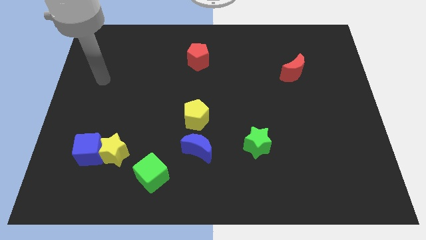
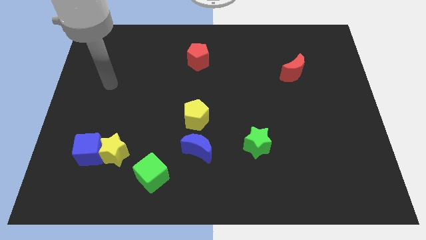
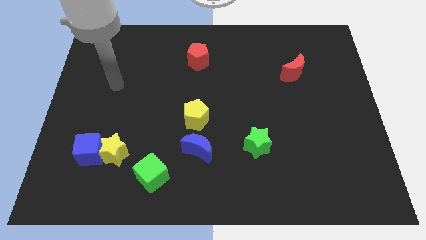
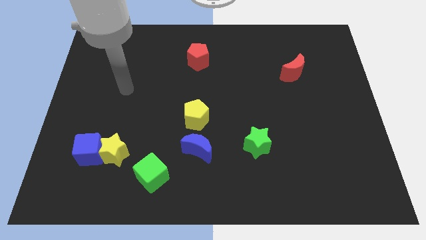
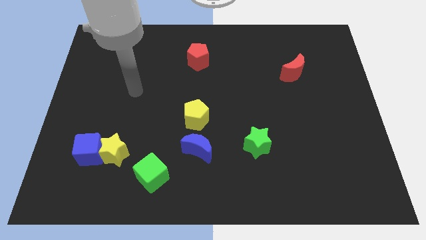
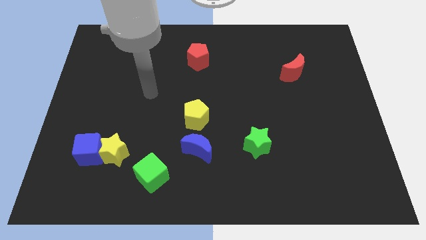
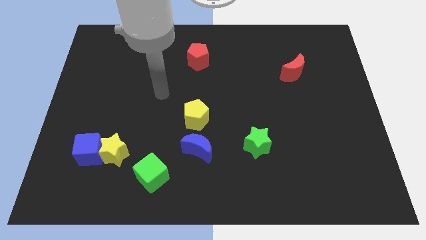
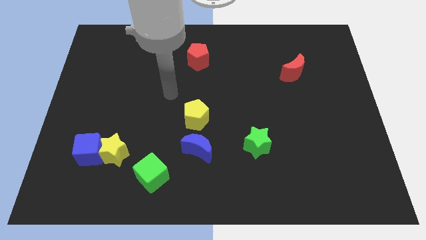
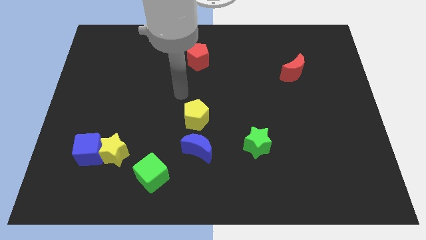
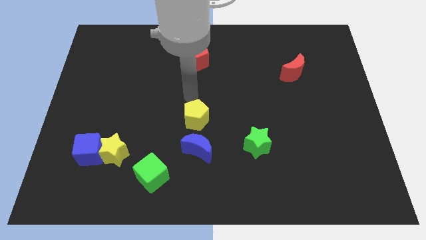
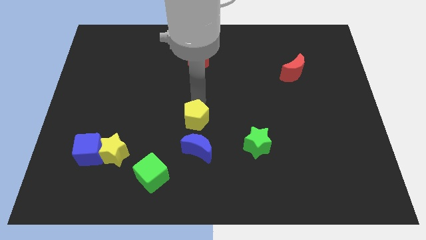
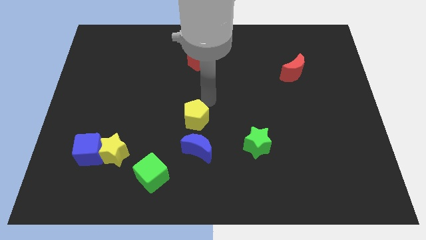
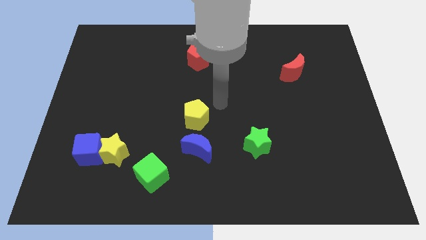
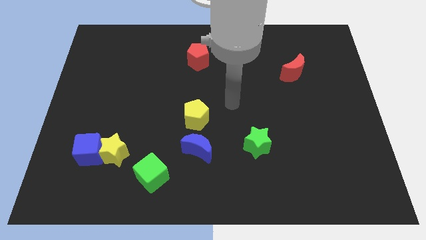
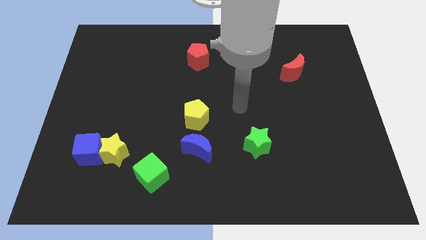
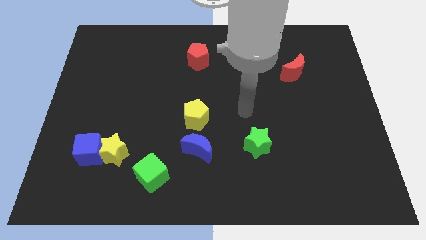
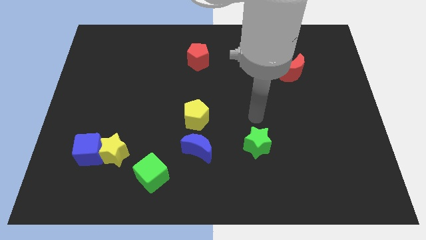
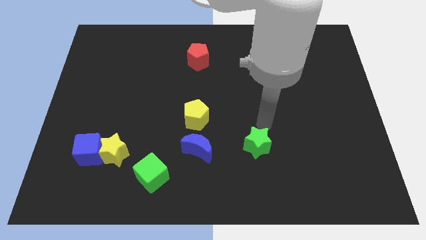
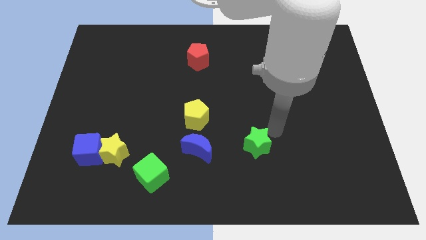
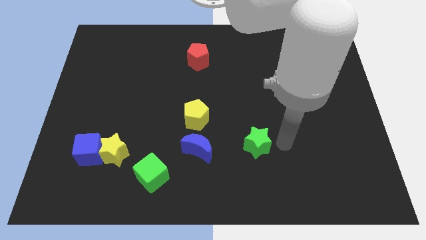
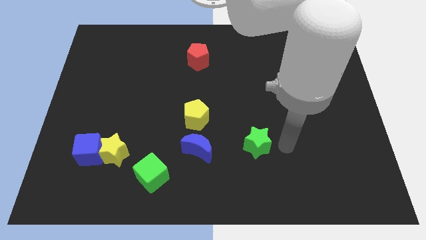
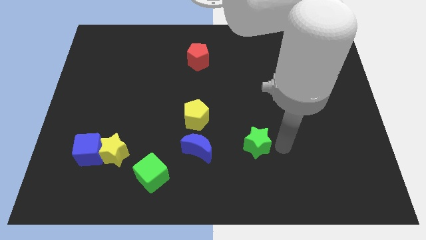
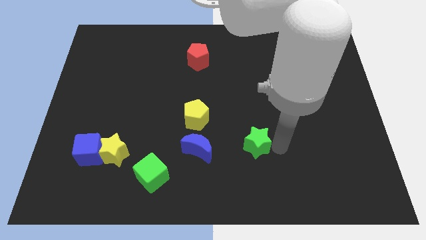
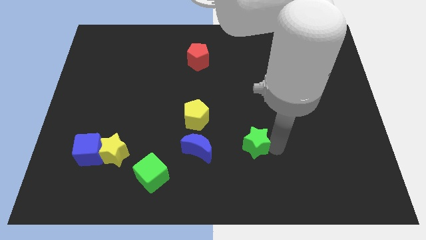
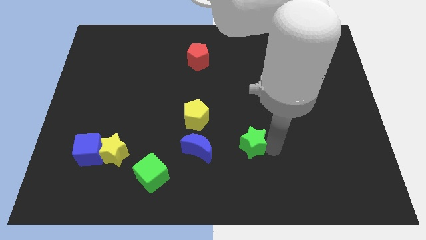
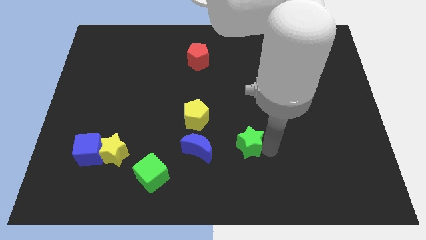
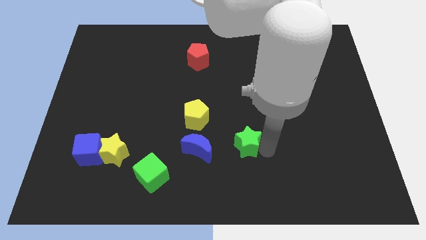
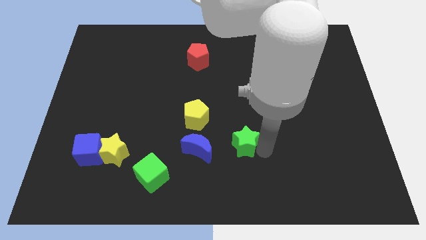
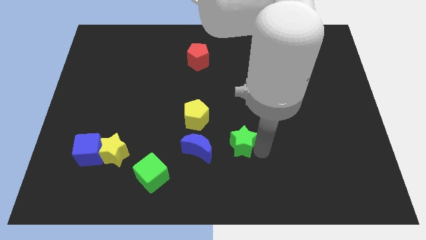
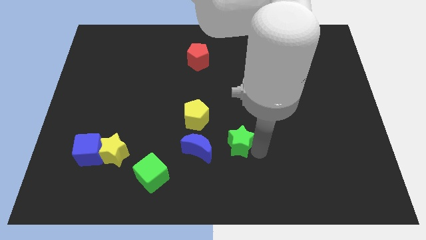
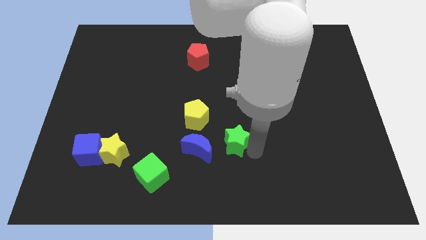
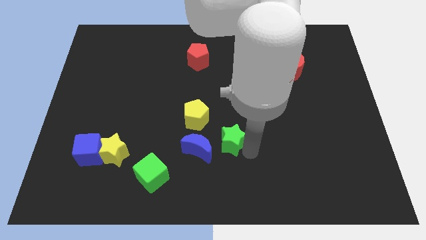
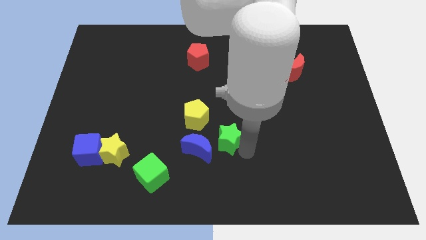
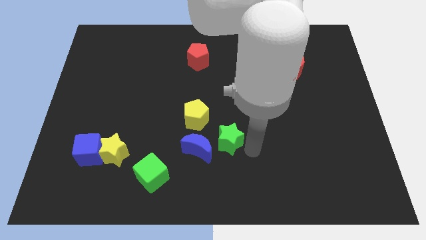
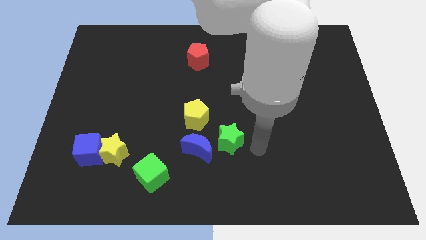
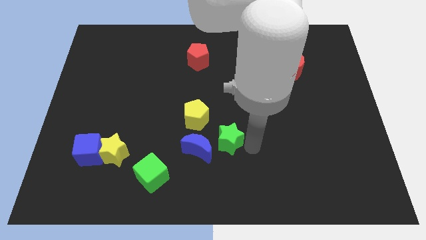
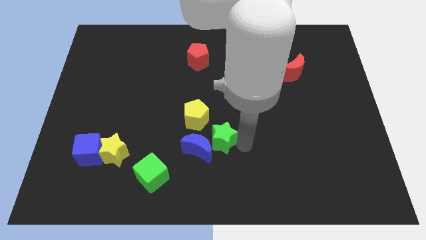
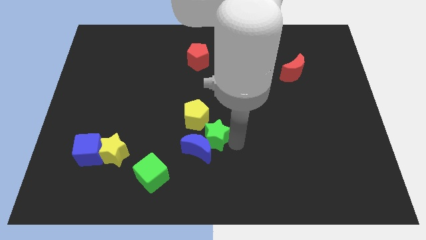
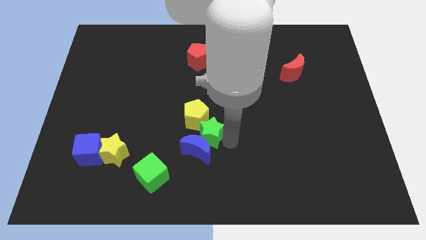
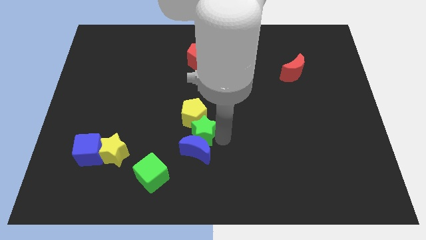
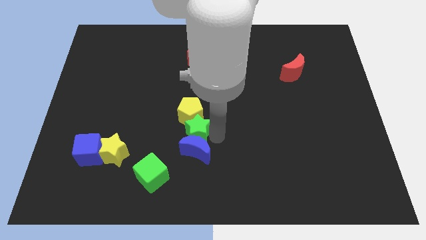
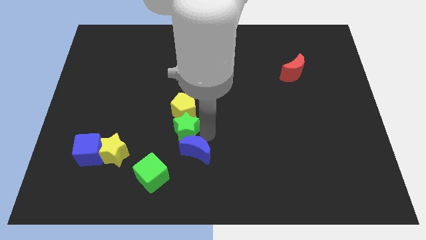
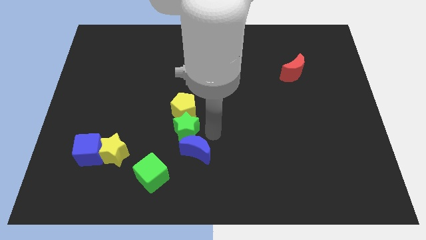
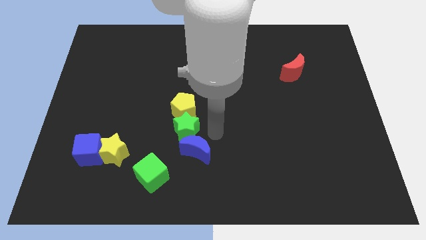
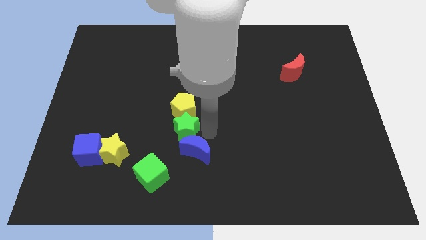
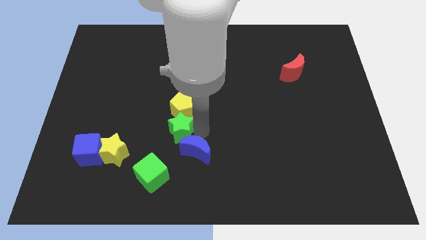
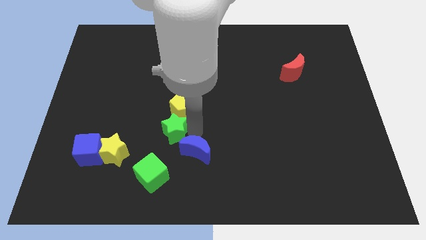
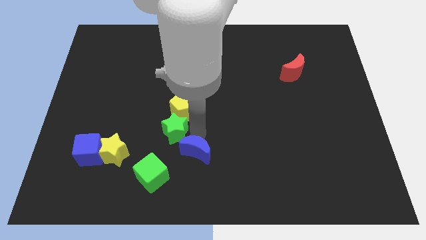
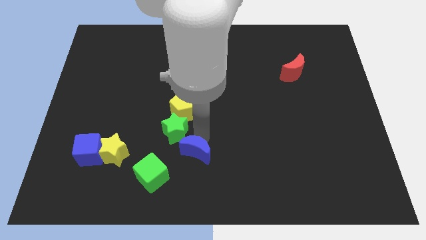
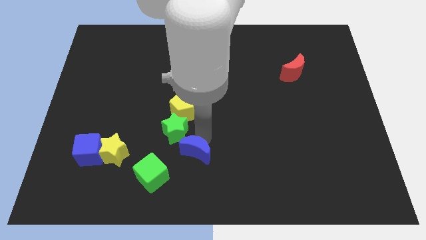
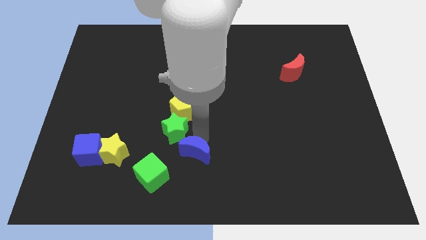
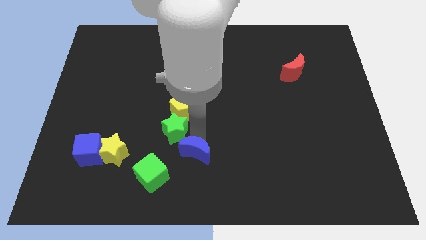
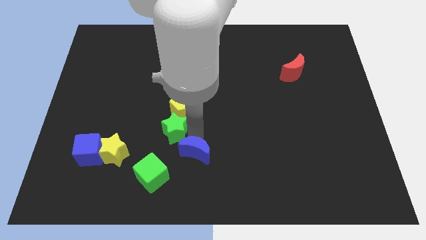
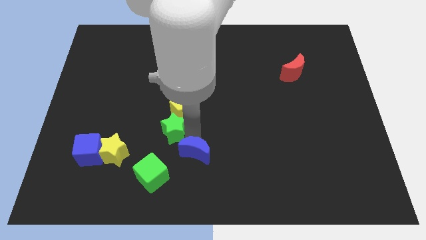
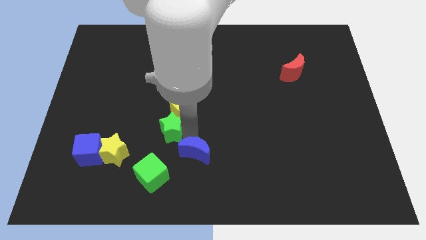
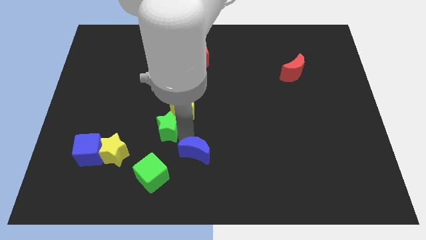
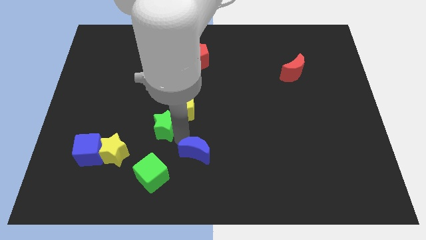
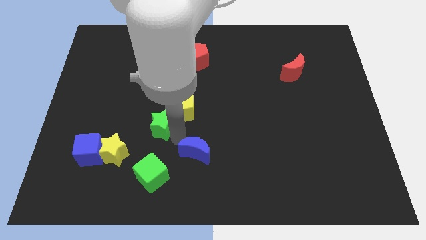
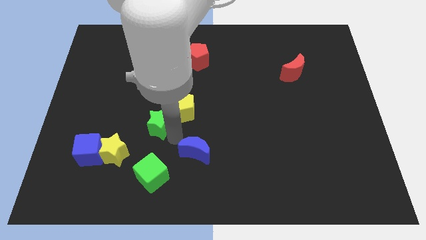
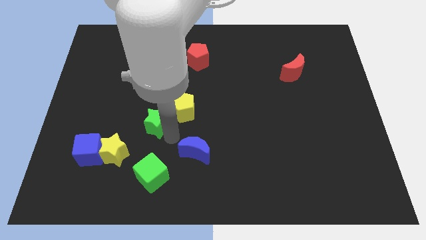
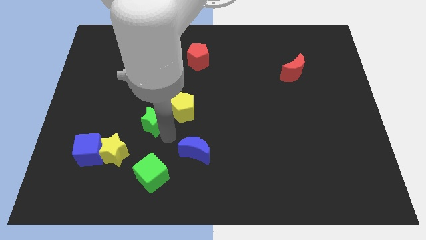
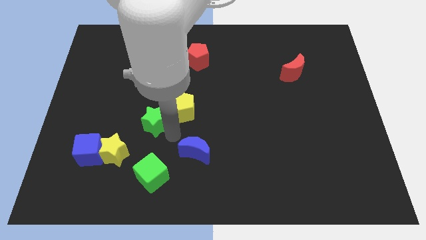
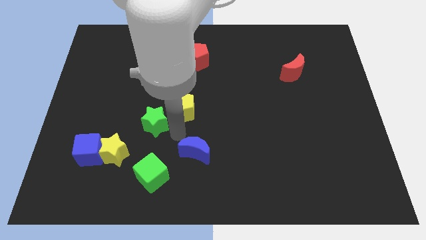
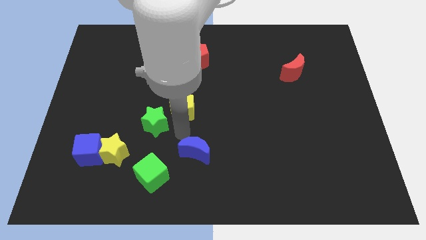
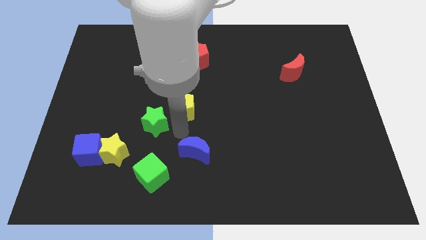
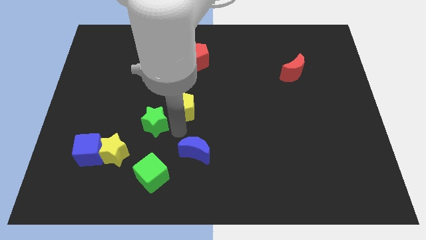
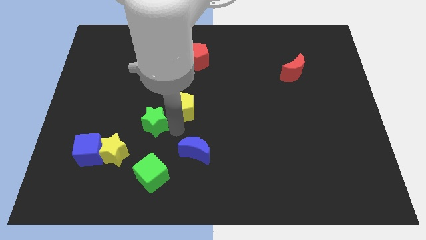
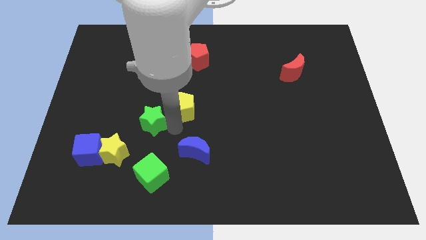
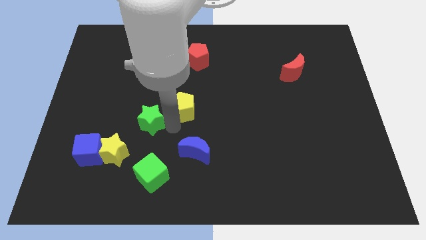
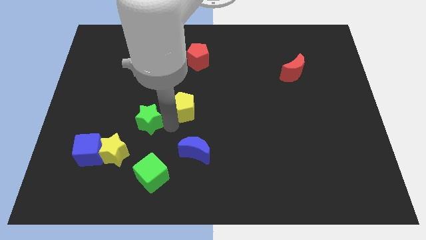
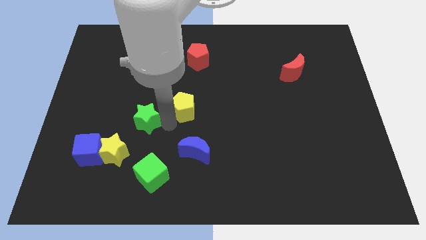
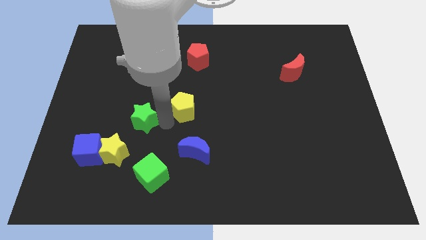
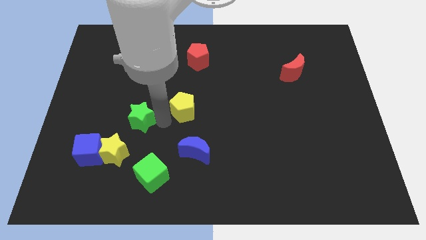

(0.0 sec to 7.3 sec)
put the green star to the top side of the yellow star
